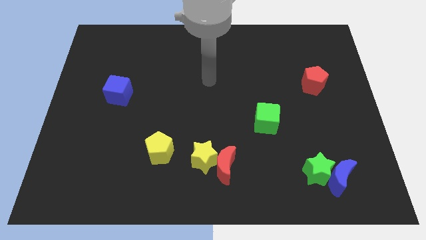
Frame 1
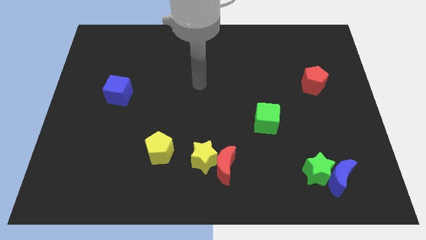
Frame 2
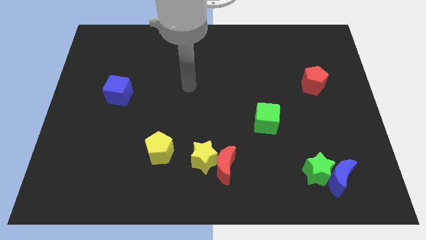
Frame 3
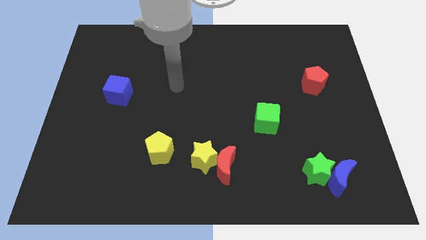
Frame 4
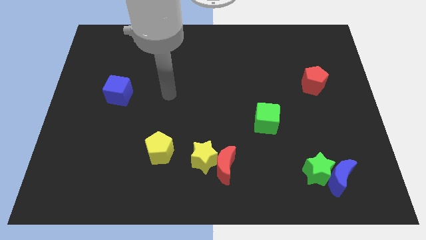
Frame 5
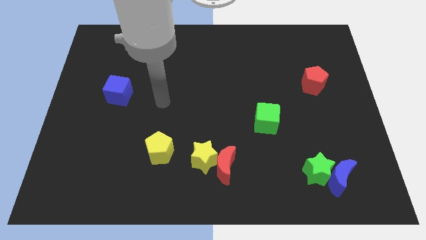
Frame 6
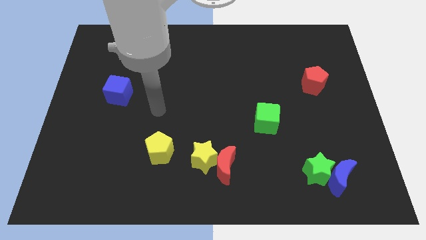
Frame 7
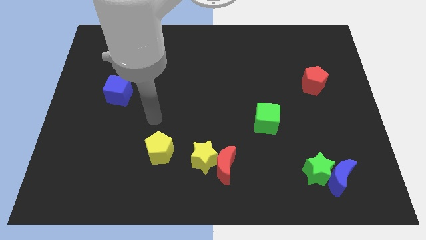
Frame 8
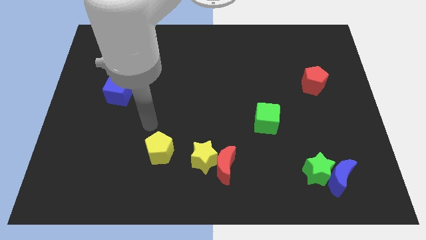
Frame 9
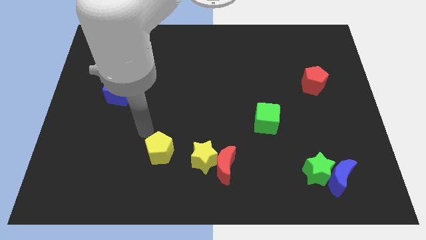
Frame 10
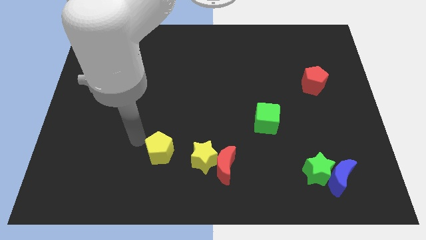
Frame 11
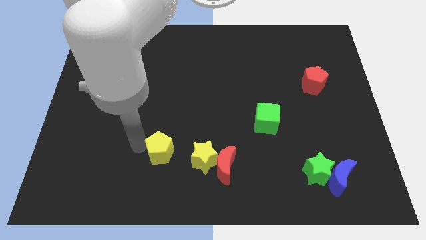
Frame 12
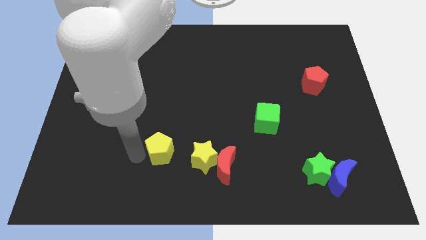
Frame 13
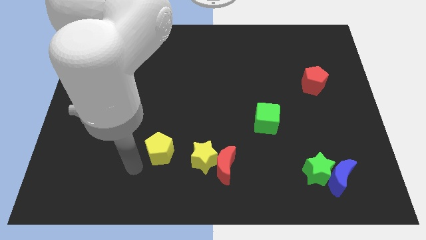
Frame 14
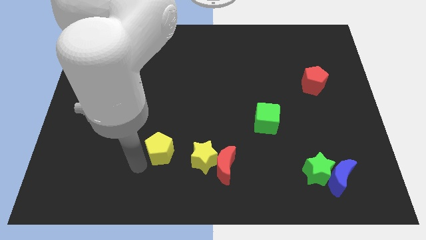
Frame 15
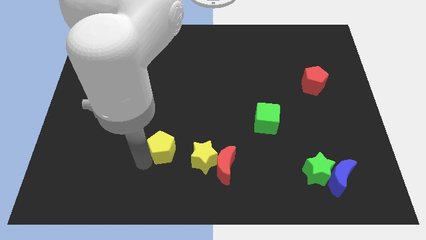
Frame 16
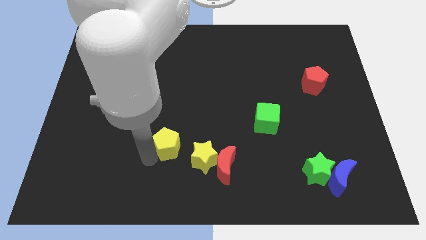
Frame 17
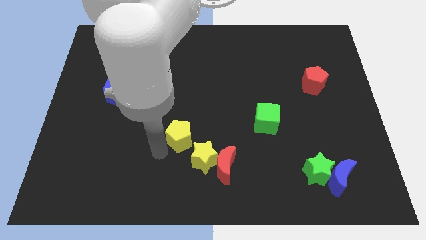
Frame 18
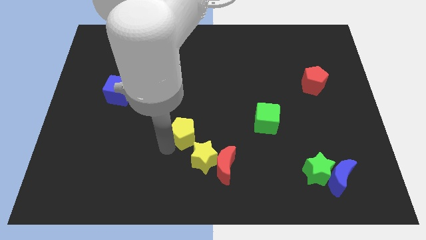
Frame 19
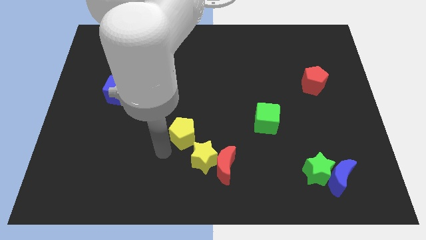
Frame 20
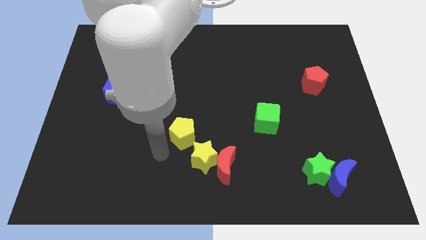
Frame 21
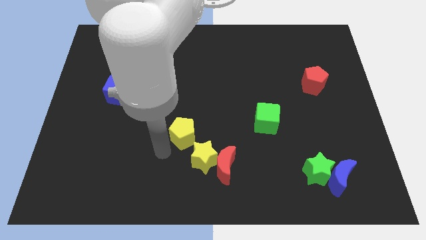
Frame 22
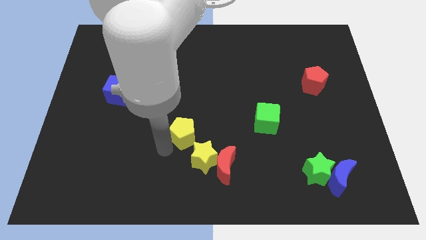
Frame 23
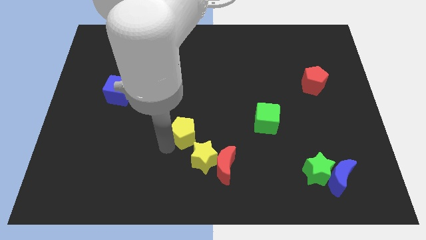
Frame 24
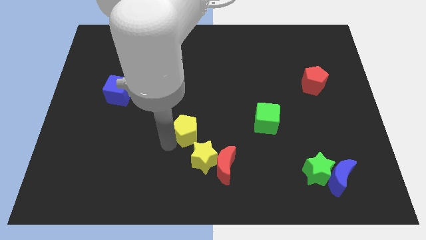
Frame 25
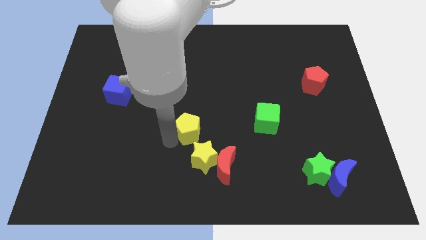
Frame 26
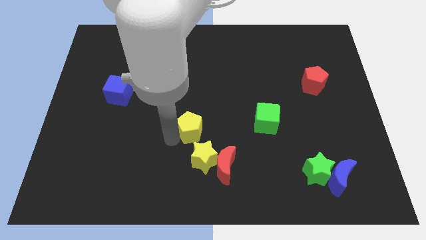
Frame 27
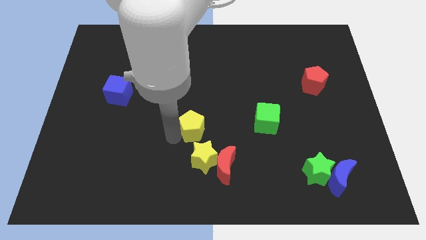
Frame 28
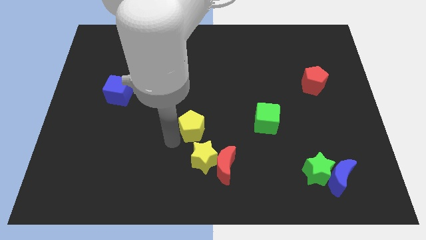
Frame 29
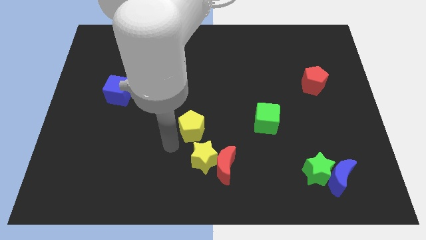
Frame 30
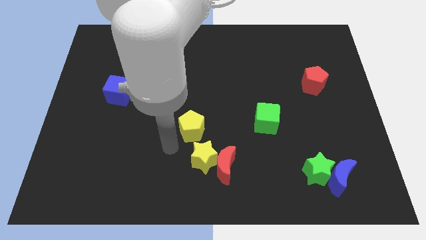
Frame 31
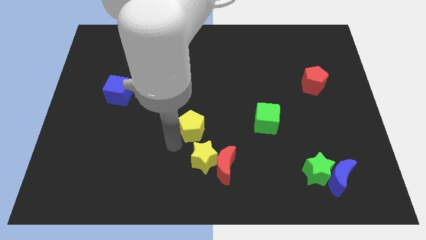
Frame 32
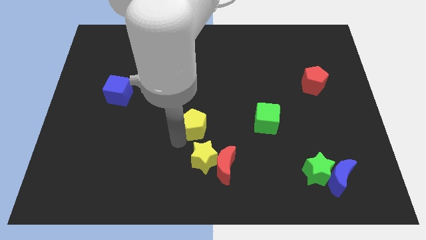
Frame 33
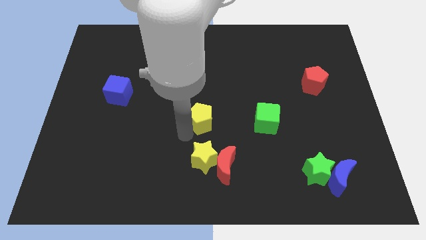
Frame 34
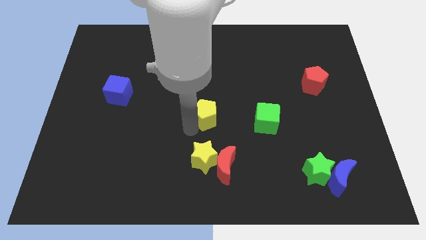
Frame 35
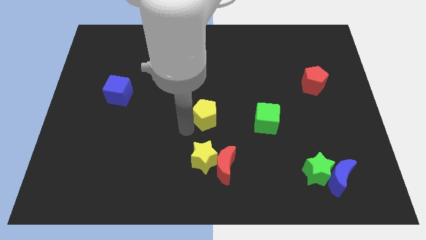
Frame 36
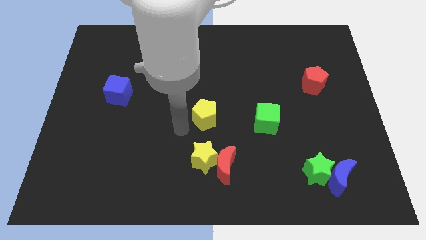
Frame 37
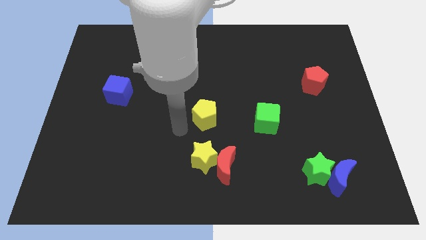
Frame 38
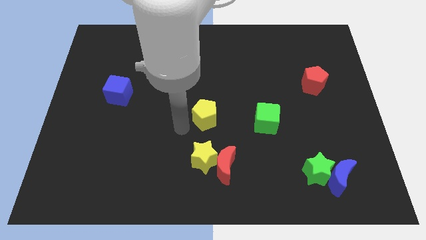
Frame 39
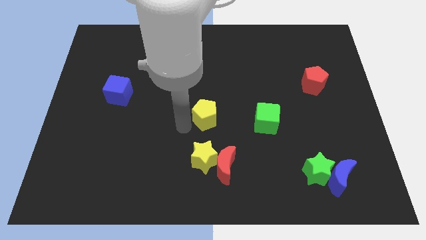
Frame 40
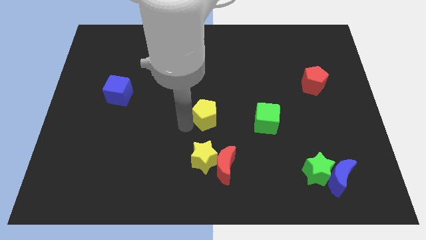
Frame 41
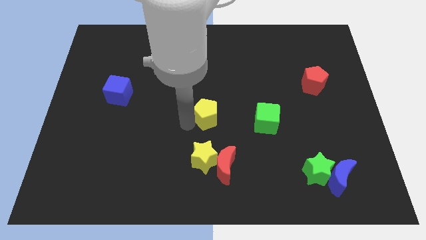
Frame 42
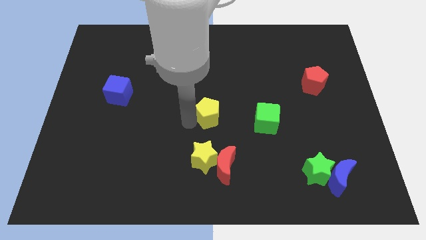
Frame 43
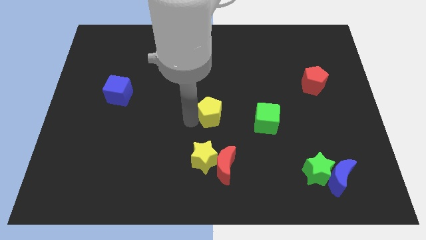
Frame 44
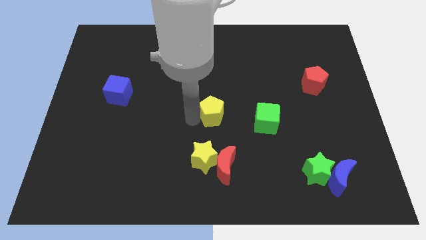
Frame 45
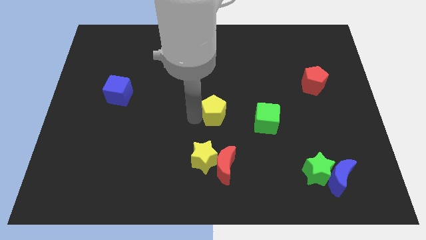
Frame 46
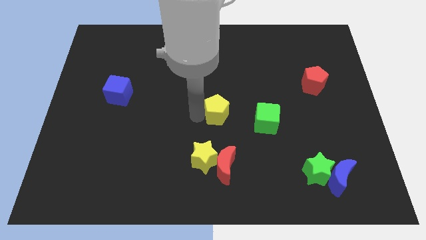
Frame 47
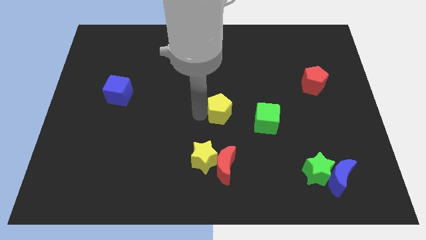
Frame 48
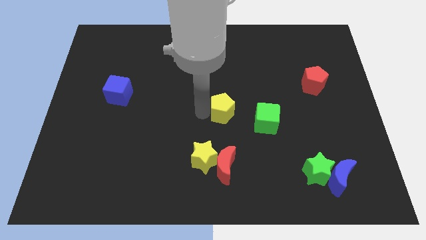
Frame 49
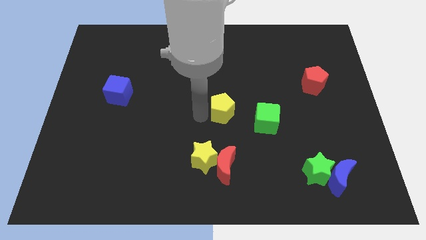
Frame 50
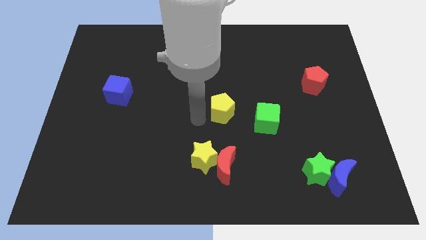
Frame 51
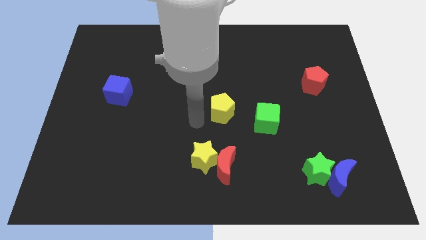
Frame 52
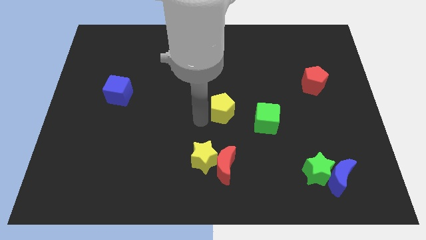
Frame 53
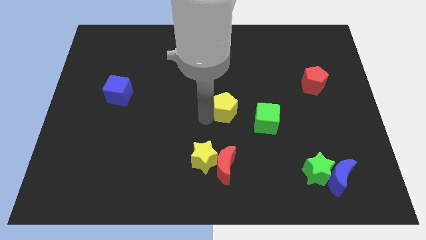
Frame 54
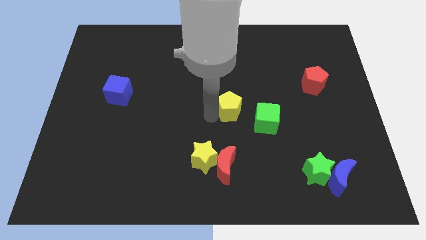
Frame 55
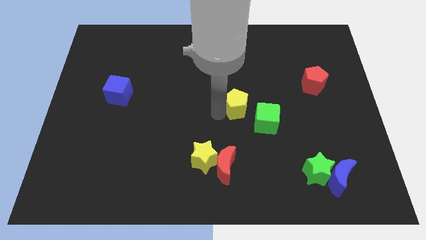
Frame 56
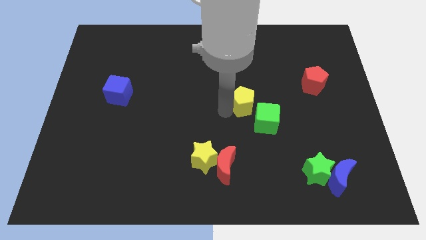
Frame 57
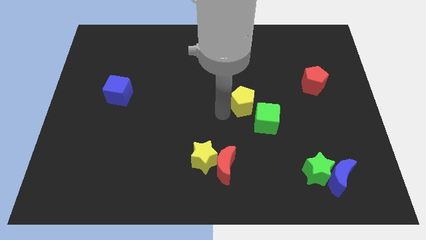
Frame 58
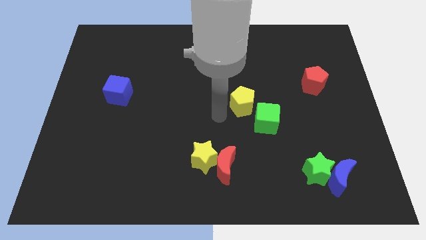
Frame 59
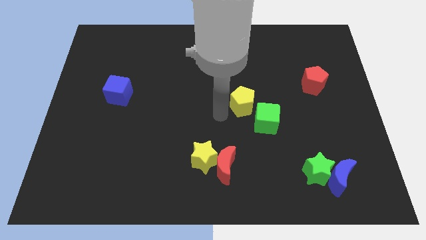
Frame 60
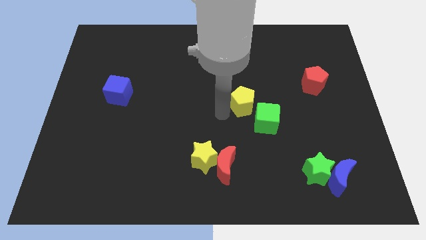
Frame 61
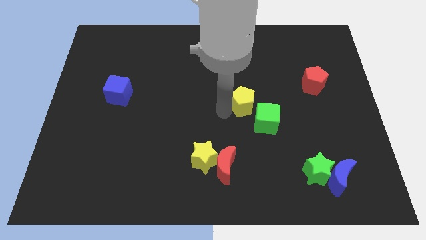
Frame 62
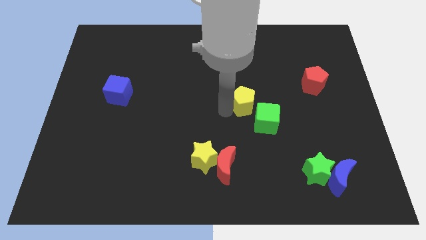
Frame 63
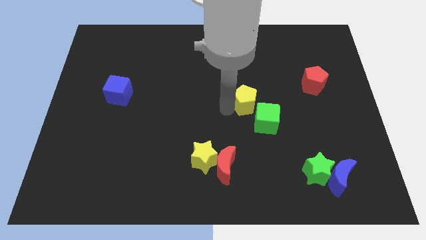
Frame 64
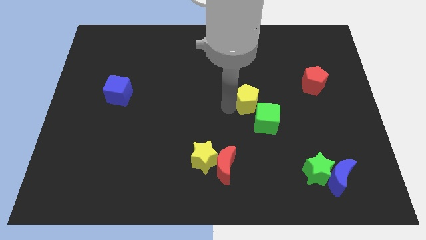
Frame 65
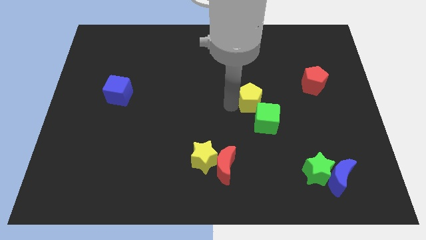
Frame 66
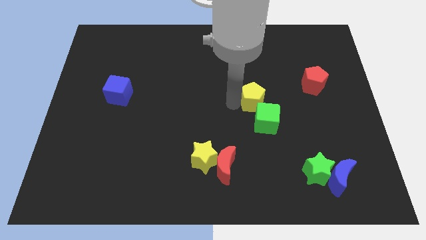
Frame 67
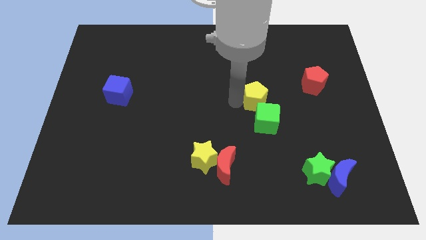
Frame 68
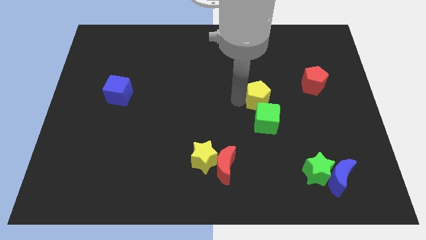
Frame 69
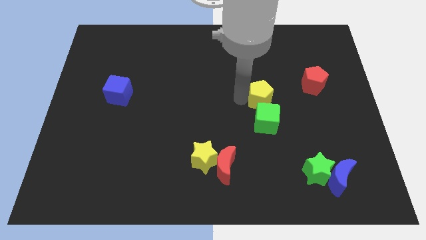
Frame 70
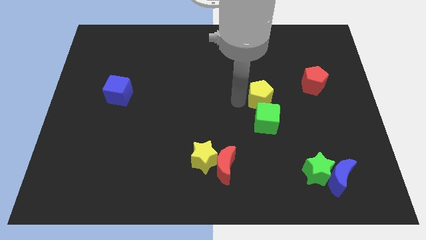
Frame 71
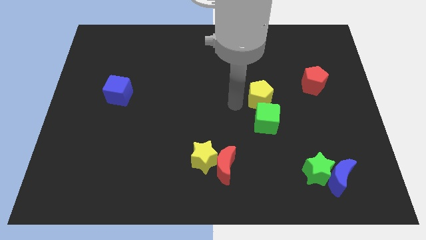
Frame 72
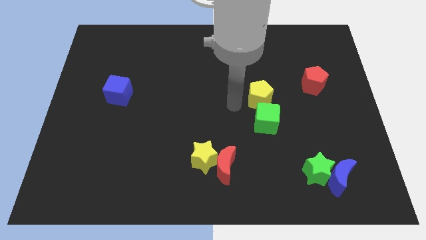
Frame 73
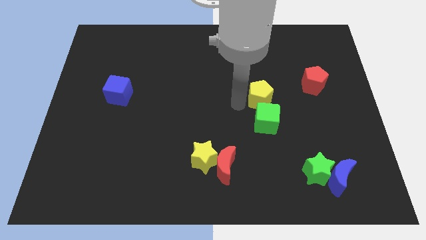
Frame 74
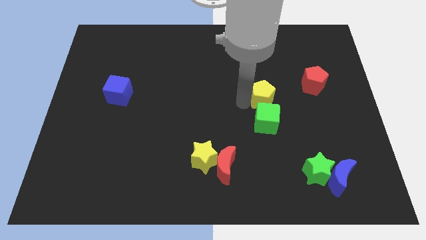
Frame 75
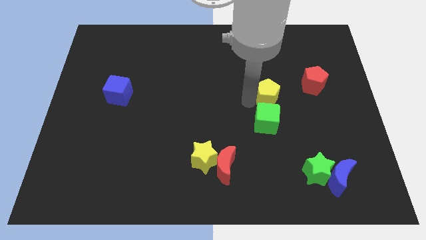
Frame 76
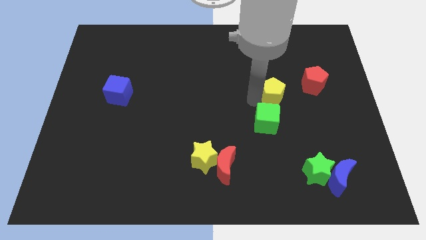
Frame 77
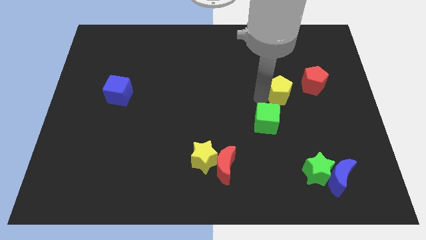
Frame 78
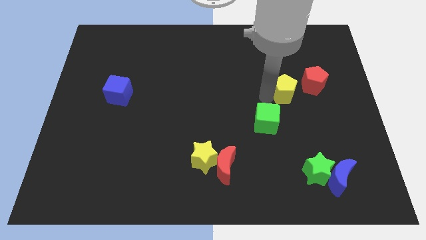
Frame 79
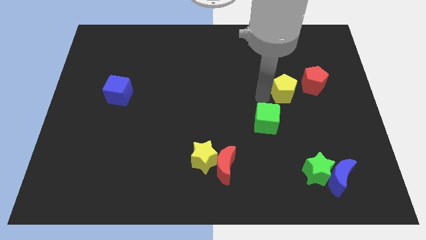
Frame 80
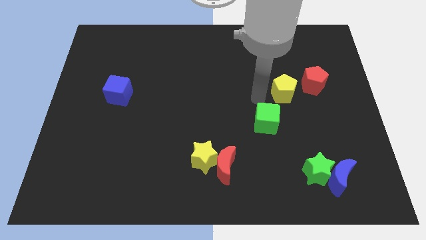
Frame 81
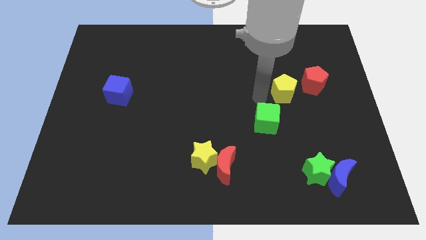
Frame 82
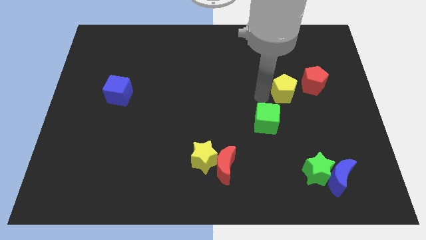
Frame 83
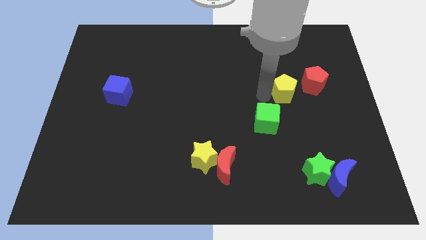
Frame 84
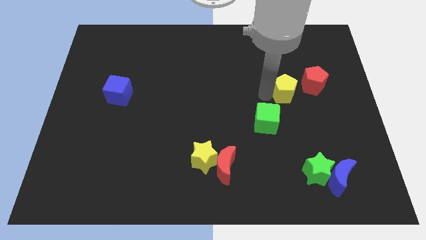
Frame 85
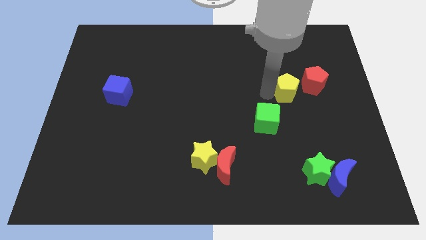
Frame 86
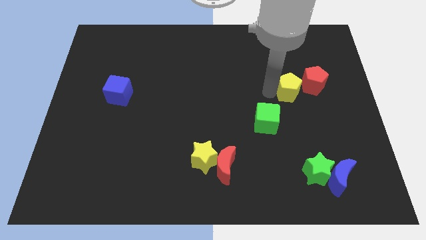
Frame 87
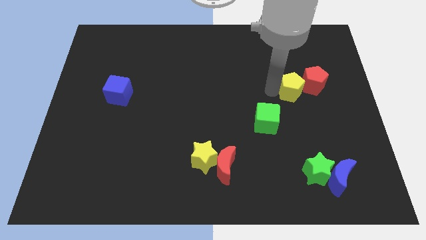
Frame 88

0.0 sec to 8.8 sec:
move the yellow pentagon next to the red pentagon
